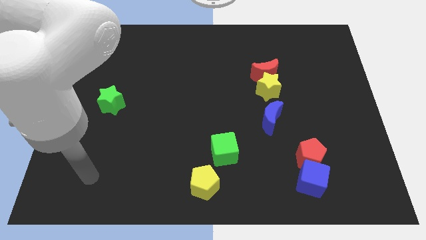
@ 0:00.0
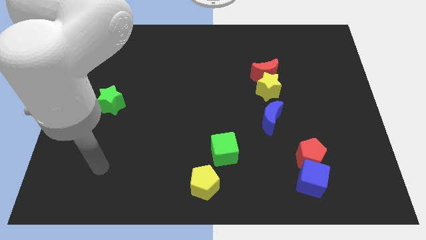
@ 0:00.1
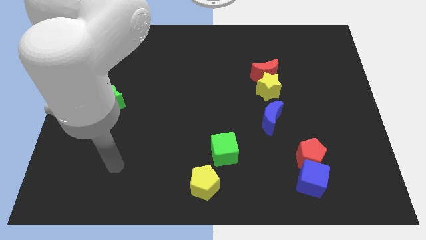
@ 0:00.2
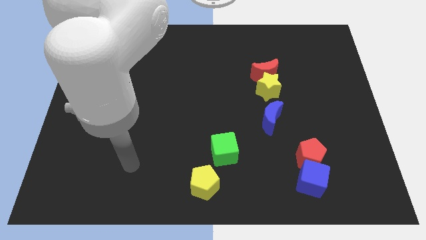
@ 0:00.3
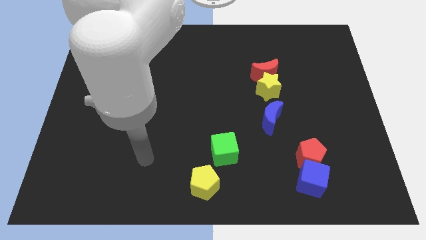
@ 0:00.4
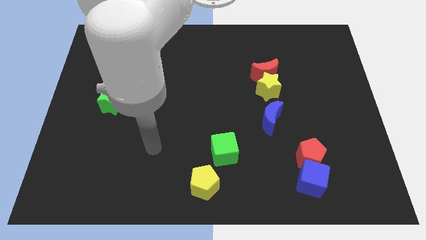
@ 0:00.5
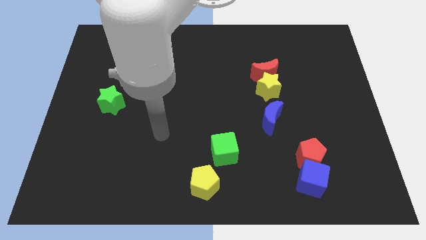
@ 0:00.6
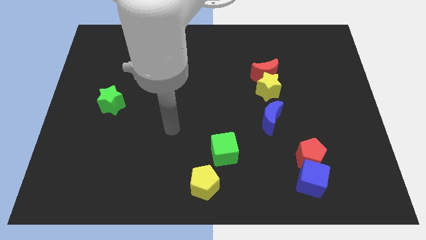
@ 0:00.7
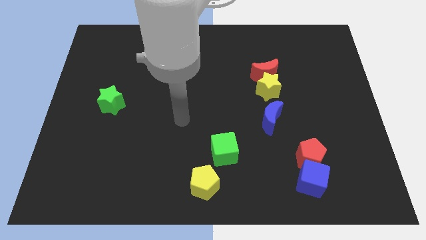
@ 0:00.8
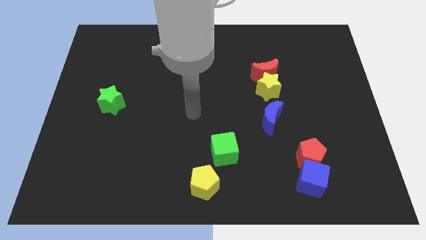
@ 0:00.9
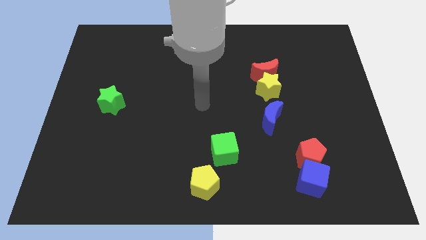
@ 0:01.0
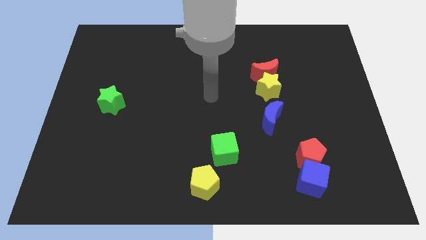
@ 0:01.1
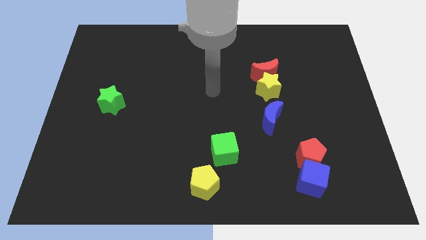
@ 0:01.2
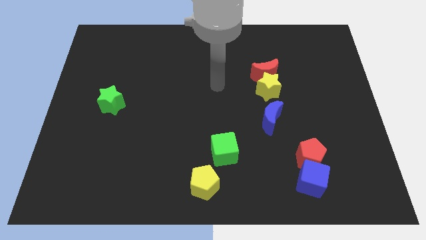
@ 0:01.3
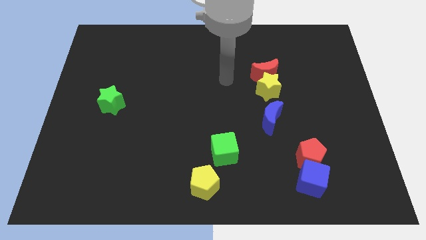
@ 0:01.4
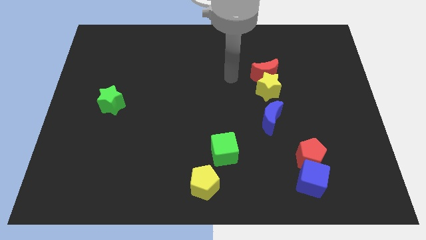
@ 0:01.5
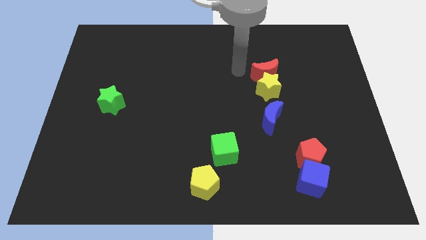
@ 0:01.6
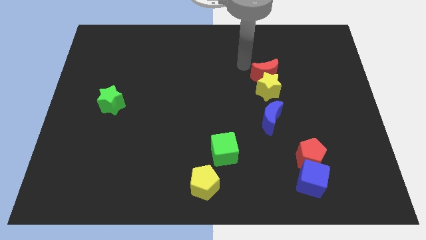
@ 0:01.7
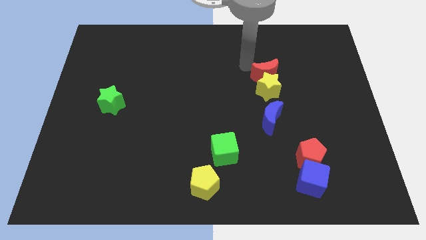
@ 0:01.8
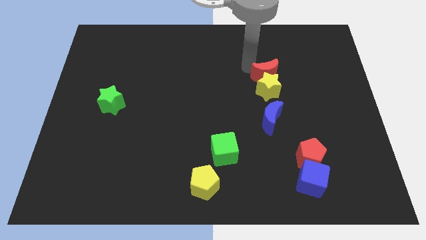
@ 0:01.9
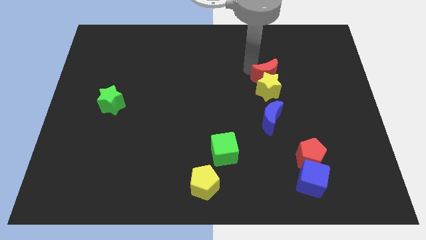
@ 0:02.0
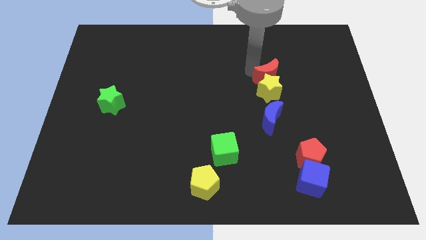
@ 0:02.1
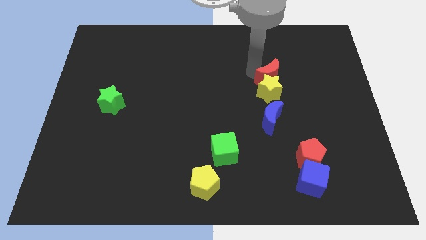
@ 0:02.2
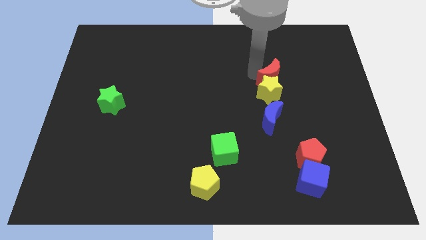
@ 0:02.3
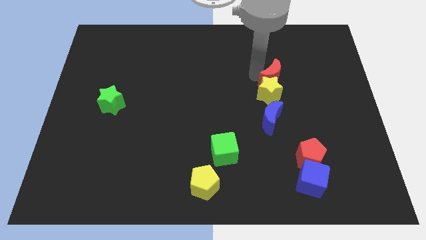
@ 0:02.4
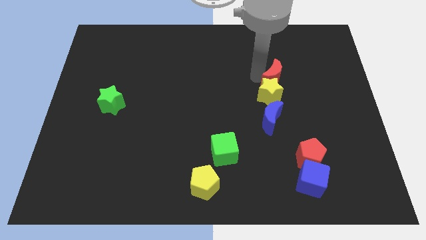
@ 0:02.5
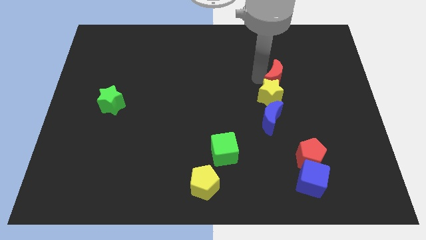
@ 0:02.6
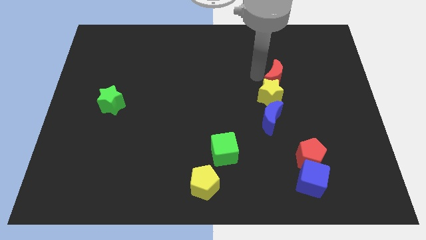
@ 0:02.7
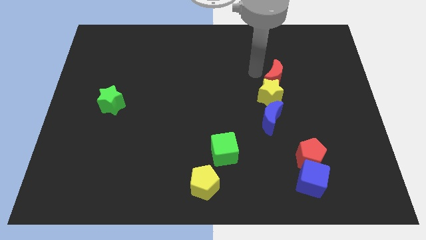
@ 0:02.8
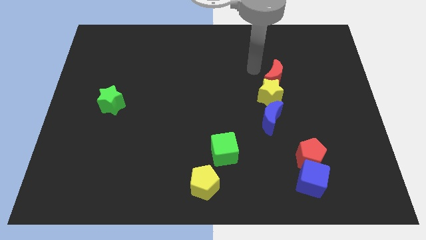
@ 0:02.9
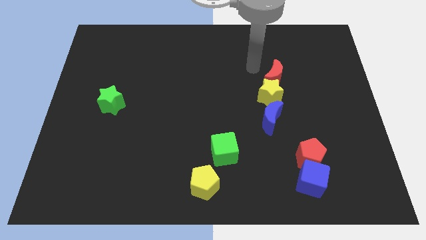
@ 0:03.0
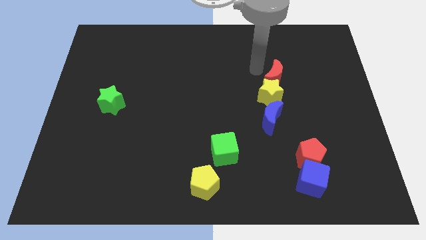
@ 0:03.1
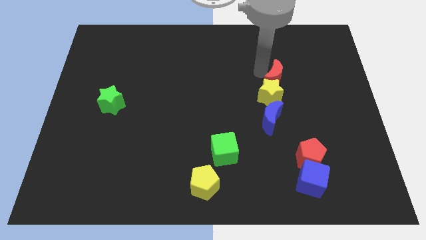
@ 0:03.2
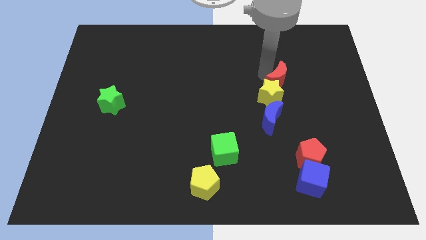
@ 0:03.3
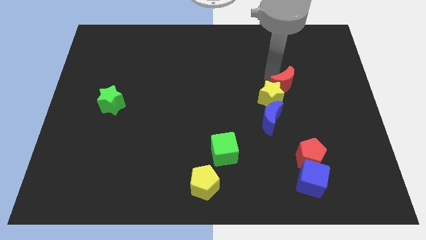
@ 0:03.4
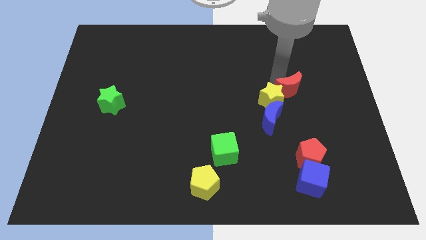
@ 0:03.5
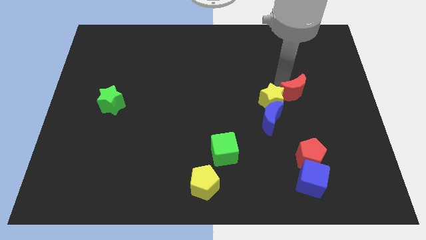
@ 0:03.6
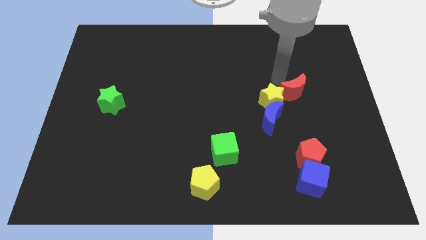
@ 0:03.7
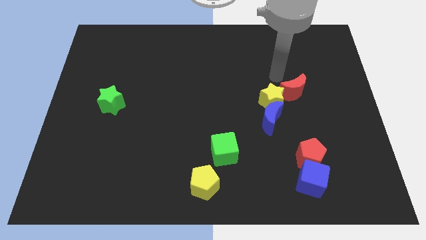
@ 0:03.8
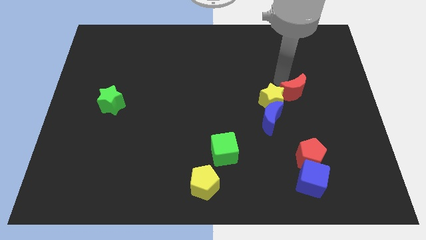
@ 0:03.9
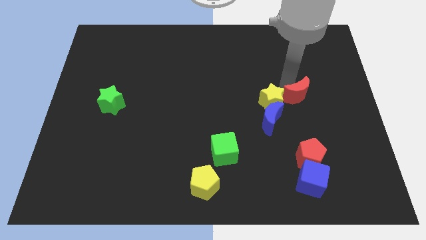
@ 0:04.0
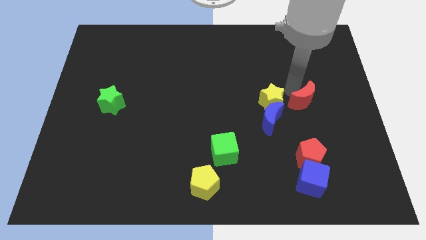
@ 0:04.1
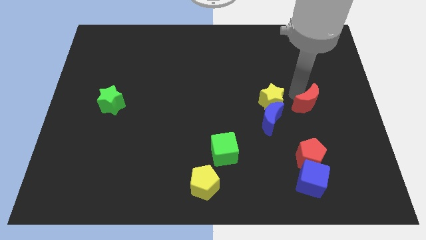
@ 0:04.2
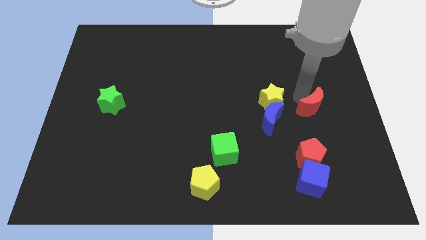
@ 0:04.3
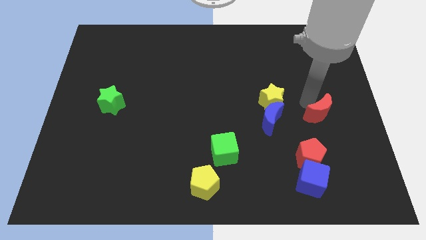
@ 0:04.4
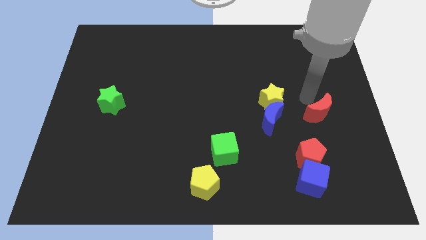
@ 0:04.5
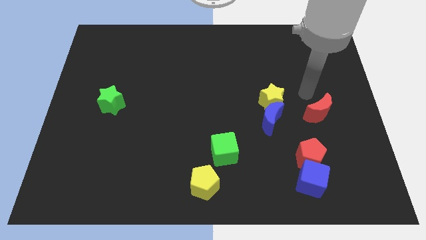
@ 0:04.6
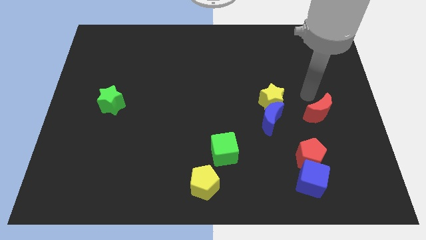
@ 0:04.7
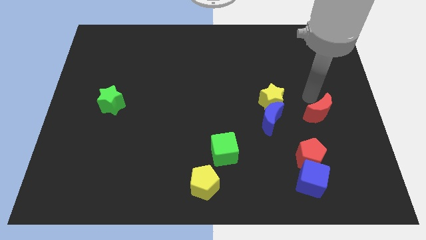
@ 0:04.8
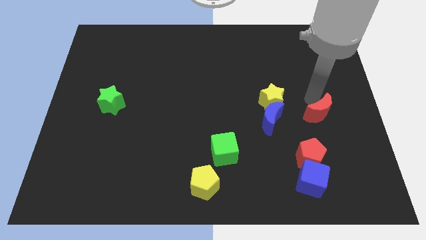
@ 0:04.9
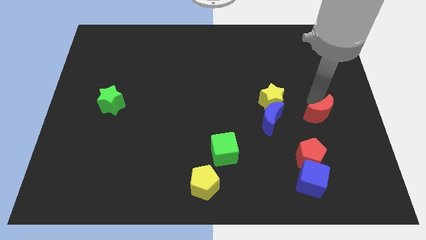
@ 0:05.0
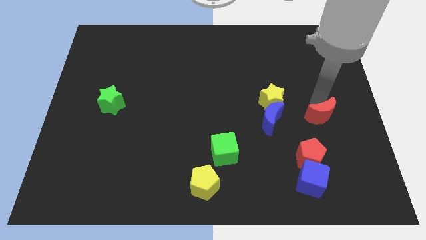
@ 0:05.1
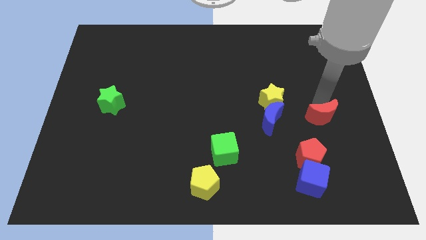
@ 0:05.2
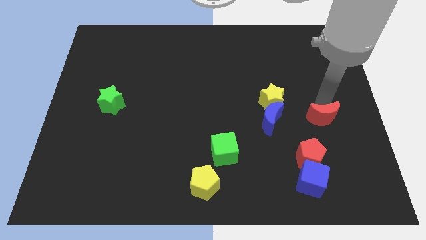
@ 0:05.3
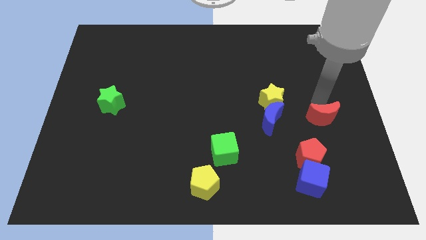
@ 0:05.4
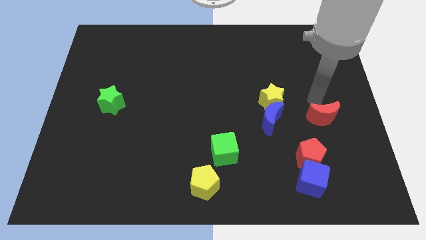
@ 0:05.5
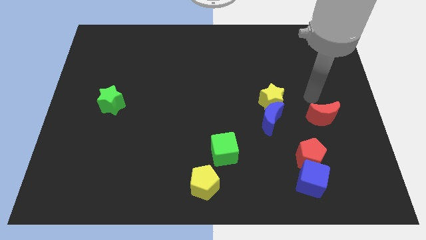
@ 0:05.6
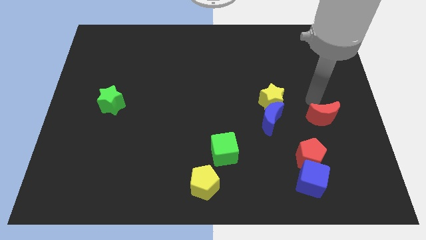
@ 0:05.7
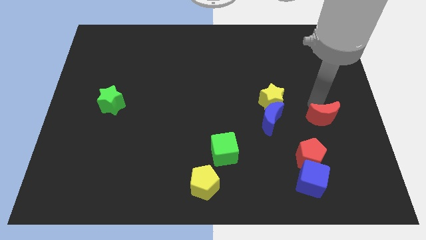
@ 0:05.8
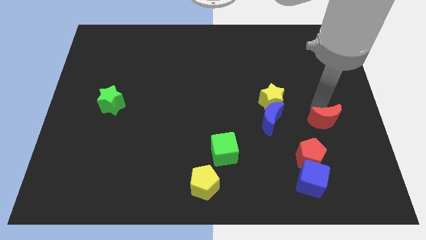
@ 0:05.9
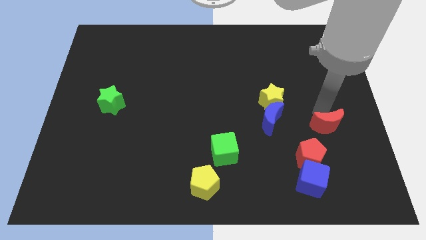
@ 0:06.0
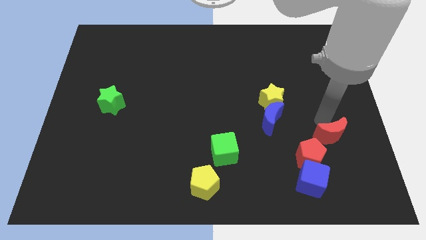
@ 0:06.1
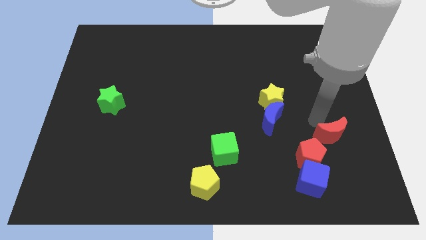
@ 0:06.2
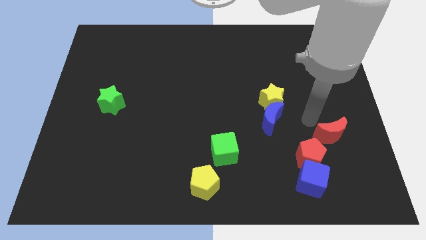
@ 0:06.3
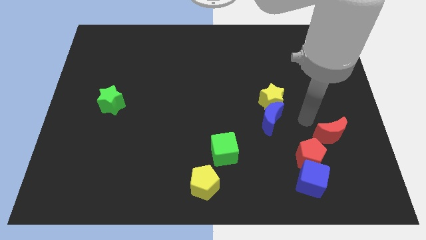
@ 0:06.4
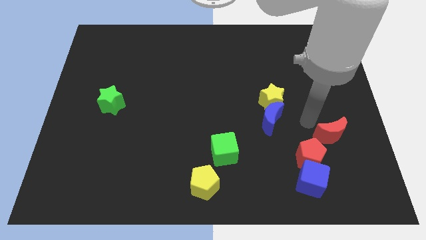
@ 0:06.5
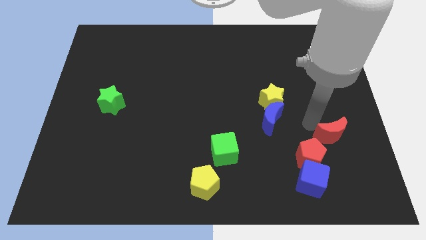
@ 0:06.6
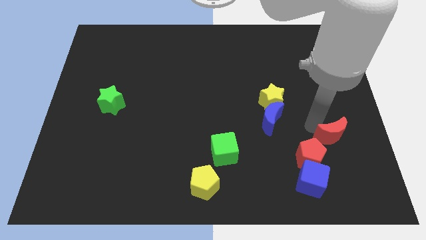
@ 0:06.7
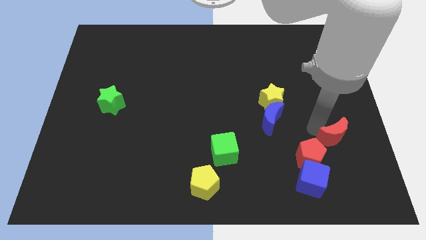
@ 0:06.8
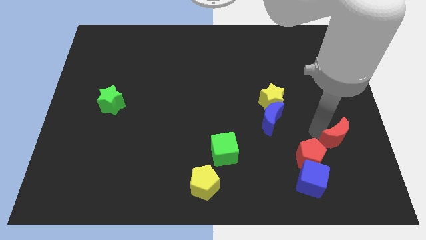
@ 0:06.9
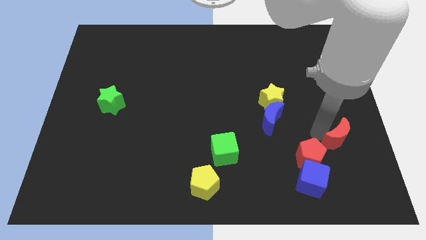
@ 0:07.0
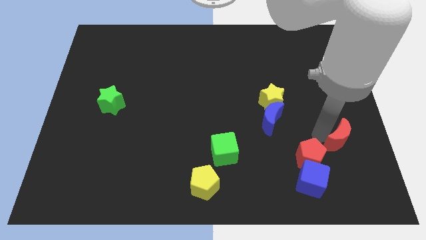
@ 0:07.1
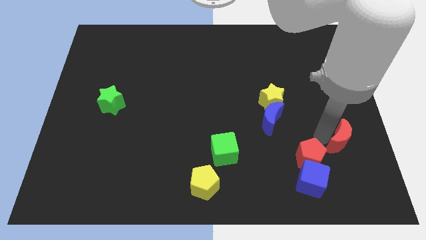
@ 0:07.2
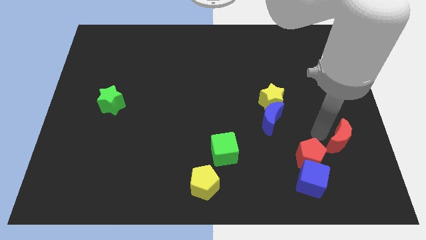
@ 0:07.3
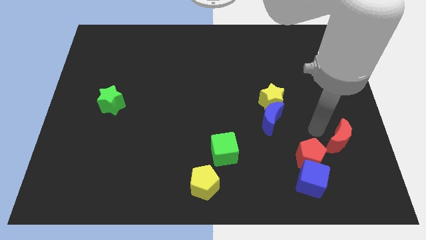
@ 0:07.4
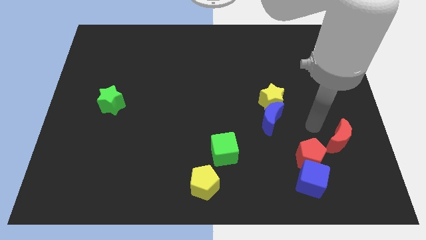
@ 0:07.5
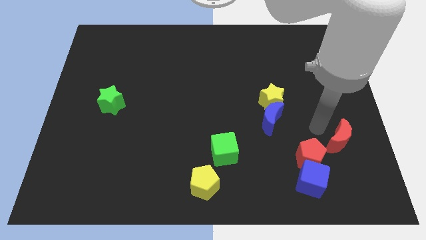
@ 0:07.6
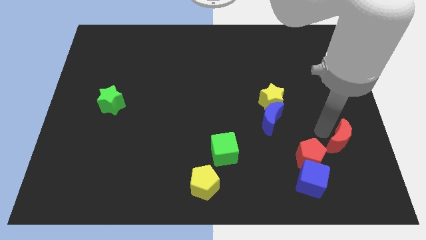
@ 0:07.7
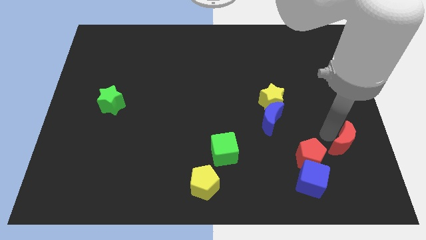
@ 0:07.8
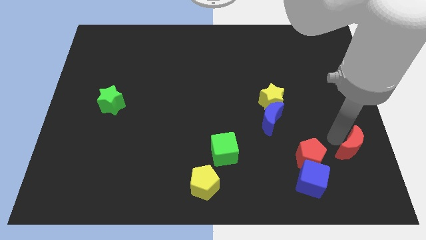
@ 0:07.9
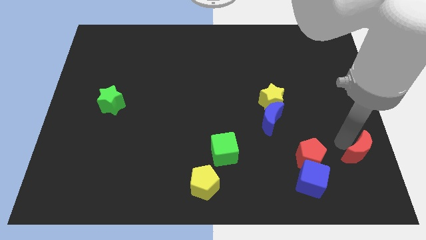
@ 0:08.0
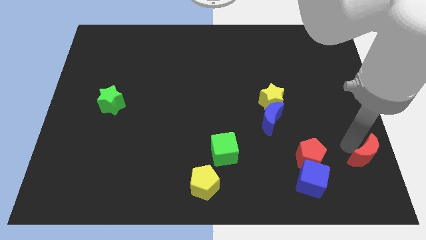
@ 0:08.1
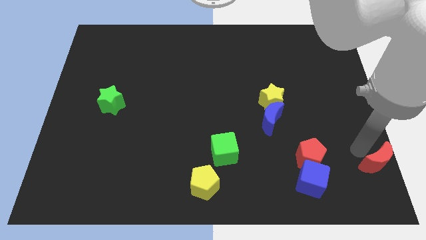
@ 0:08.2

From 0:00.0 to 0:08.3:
slide the red moon to the bottom right corner
